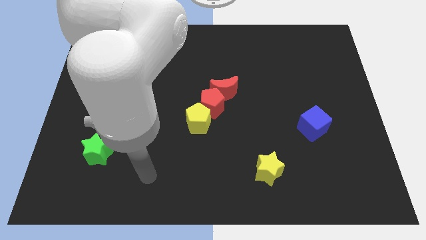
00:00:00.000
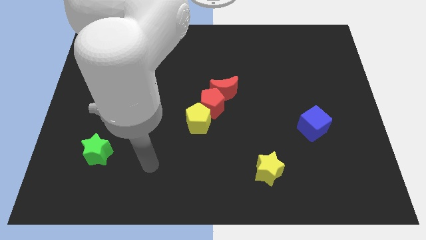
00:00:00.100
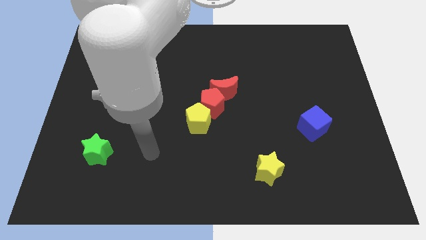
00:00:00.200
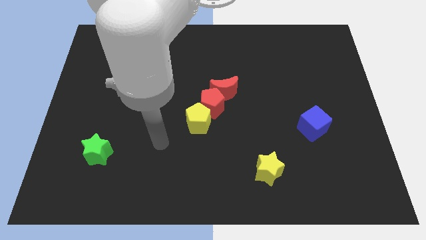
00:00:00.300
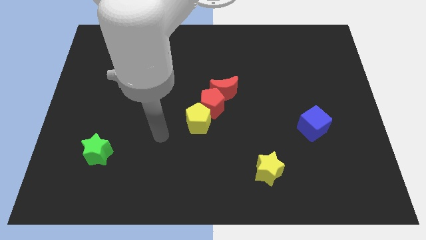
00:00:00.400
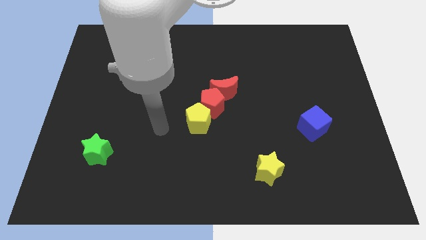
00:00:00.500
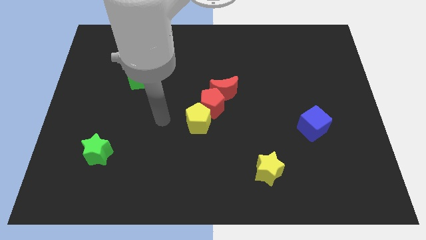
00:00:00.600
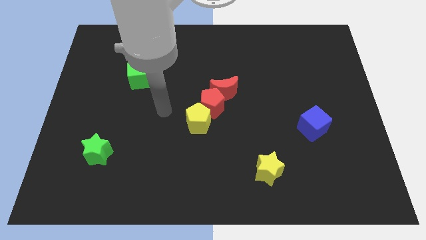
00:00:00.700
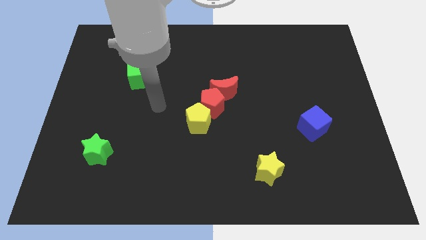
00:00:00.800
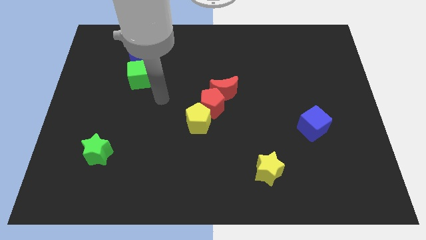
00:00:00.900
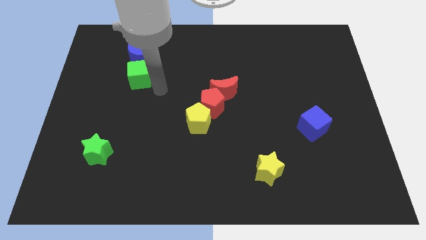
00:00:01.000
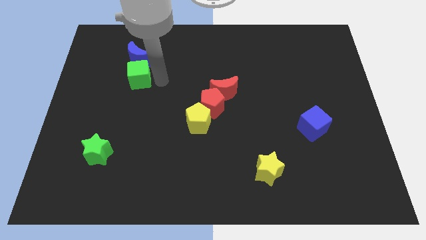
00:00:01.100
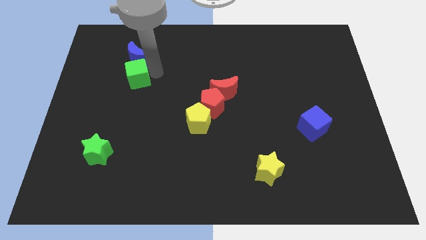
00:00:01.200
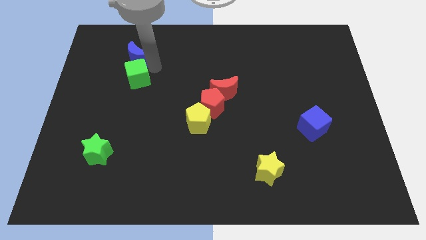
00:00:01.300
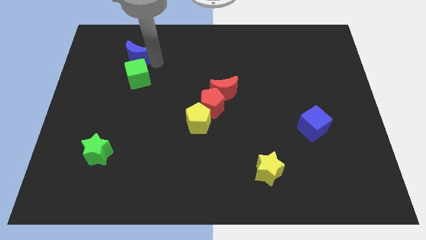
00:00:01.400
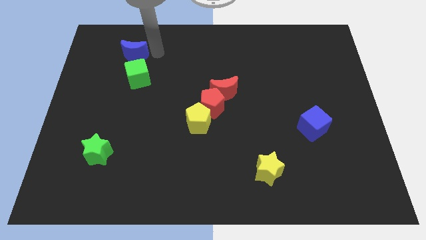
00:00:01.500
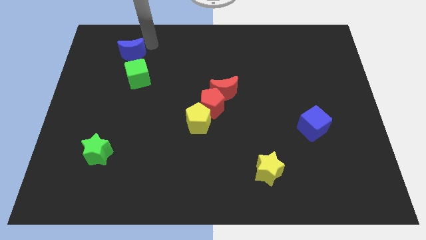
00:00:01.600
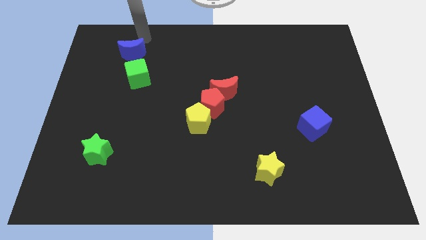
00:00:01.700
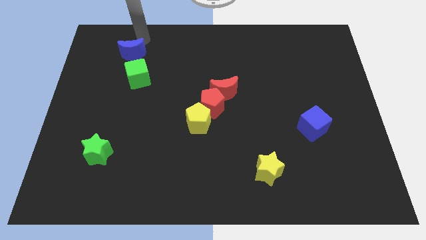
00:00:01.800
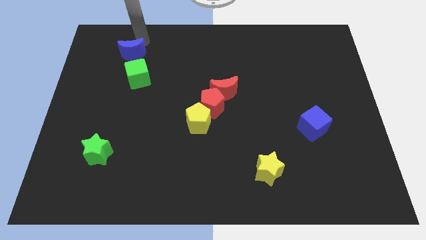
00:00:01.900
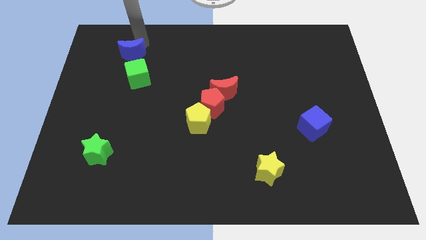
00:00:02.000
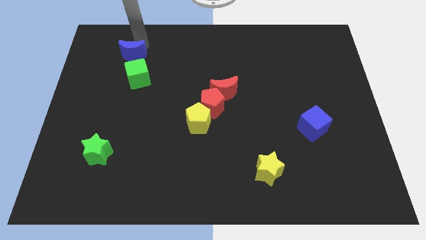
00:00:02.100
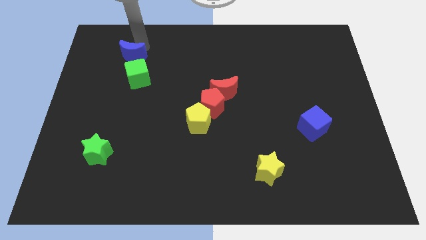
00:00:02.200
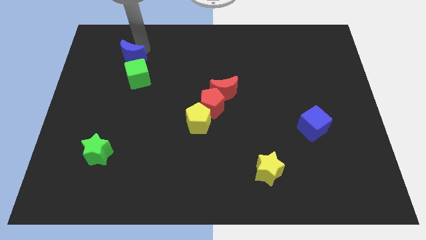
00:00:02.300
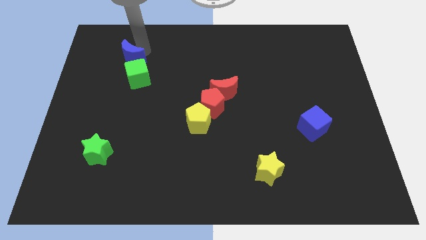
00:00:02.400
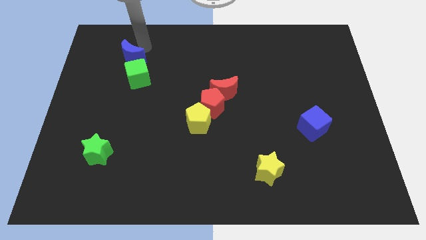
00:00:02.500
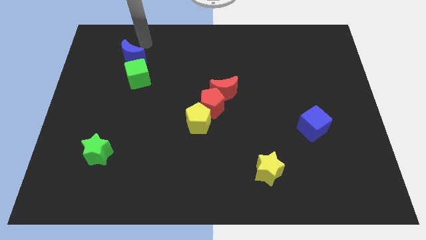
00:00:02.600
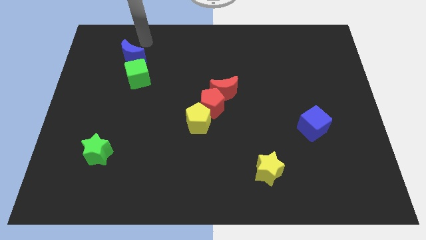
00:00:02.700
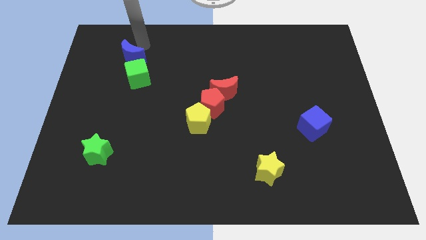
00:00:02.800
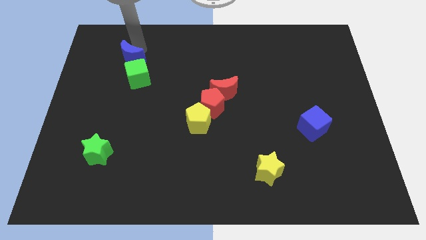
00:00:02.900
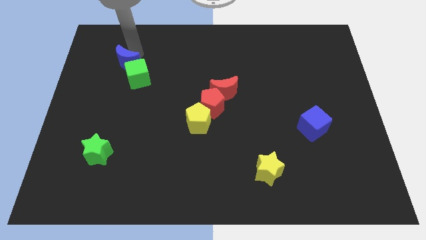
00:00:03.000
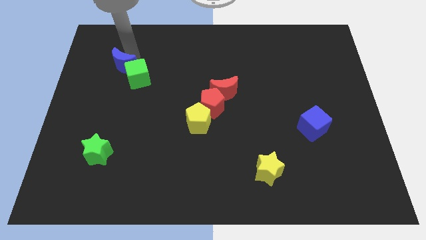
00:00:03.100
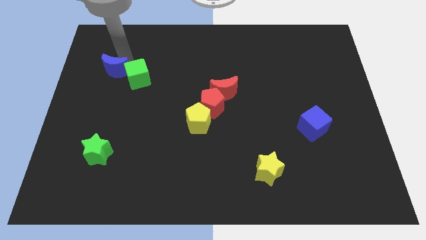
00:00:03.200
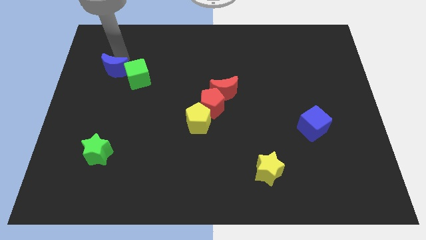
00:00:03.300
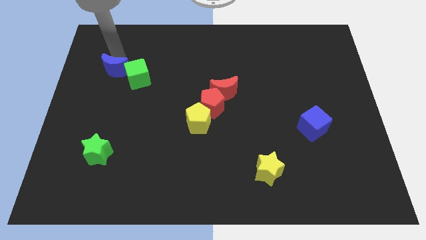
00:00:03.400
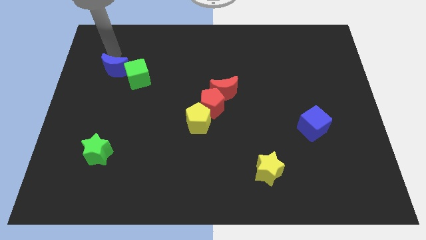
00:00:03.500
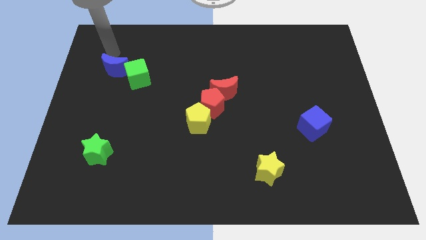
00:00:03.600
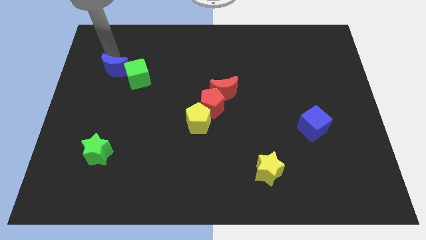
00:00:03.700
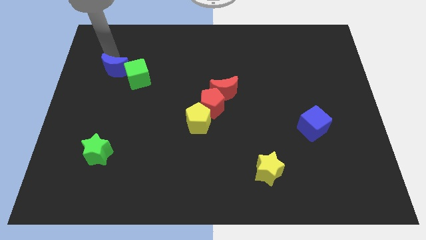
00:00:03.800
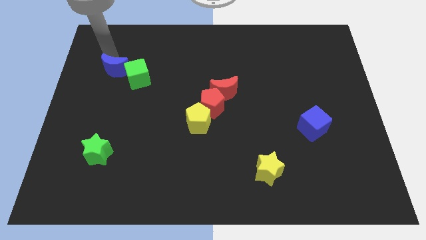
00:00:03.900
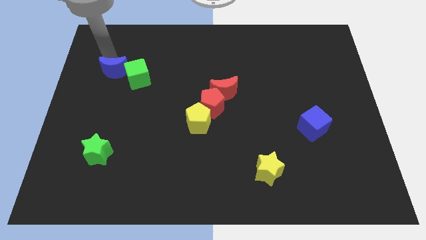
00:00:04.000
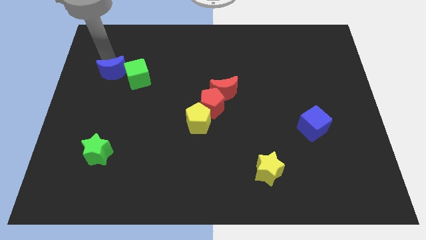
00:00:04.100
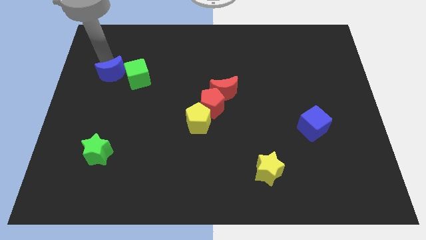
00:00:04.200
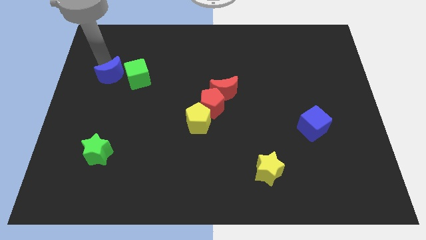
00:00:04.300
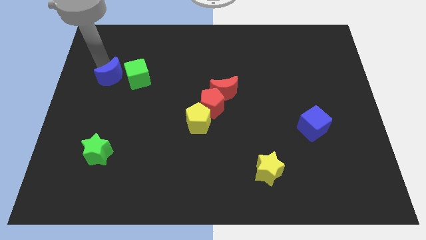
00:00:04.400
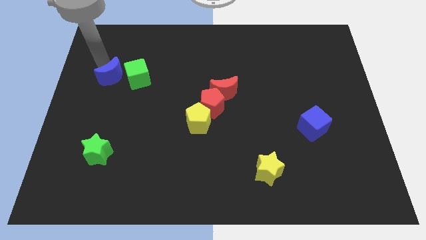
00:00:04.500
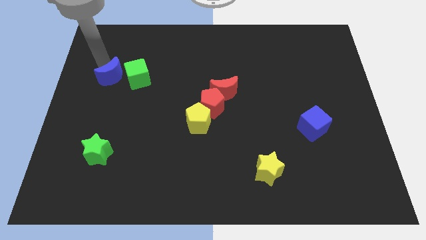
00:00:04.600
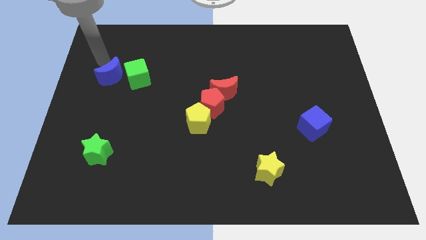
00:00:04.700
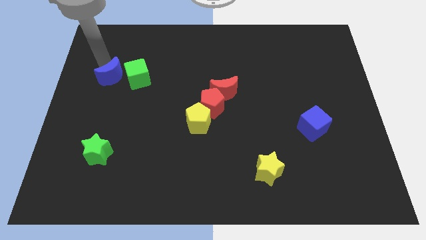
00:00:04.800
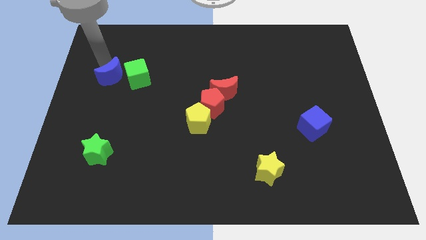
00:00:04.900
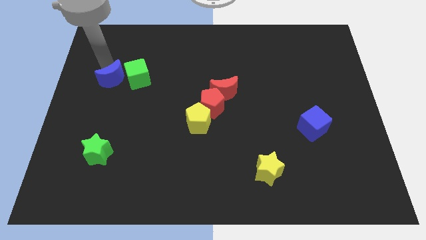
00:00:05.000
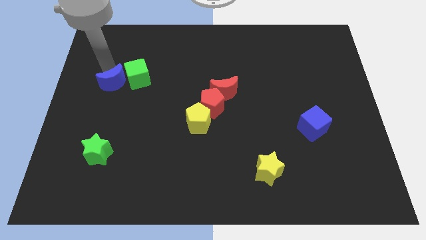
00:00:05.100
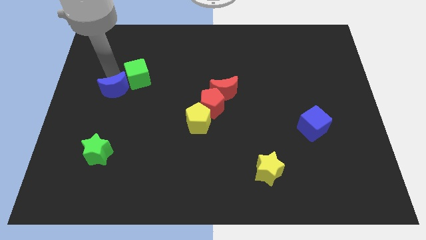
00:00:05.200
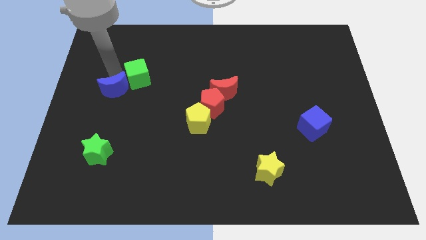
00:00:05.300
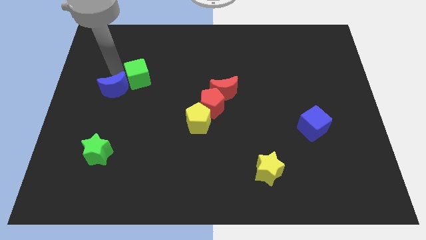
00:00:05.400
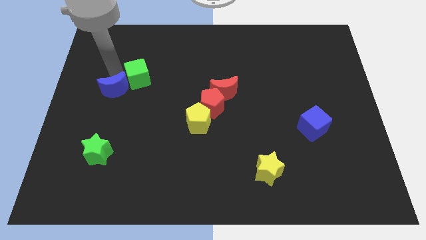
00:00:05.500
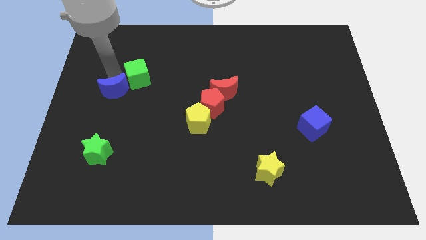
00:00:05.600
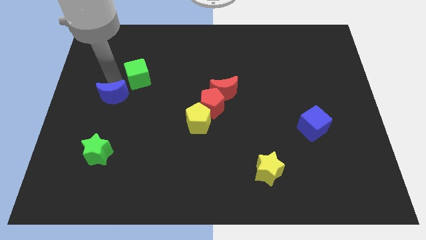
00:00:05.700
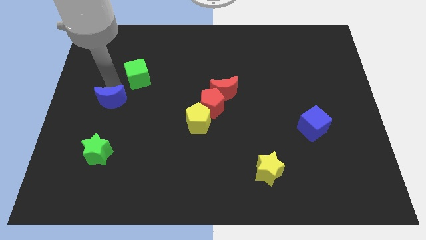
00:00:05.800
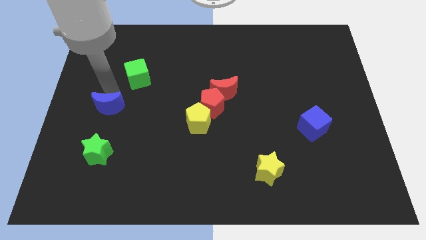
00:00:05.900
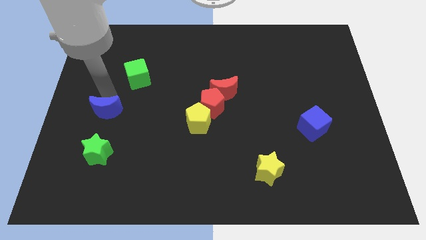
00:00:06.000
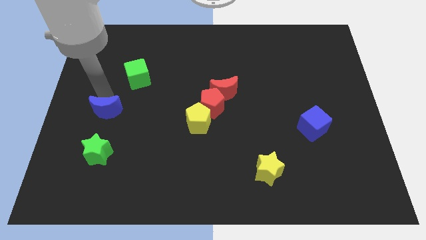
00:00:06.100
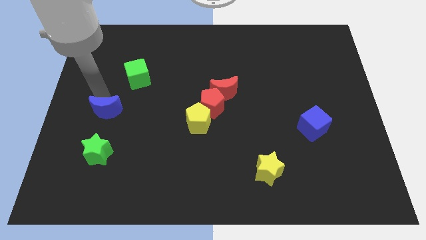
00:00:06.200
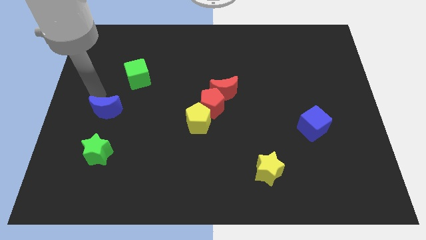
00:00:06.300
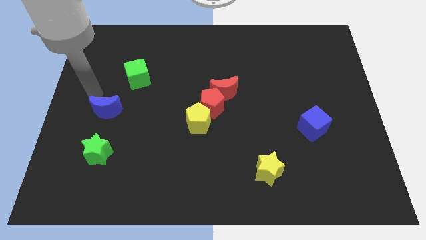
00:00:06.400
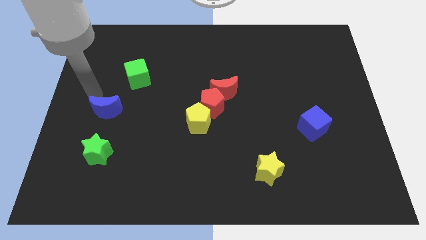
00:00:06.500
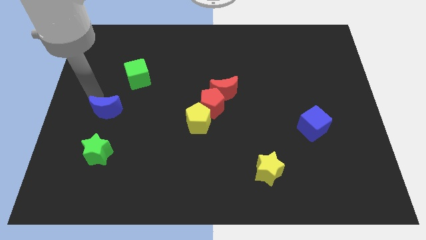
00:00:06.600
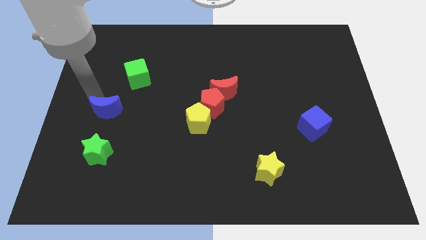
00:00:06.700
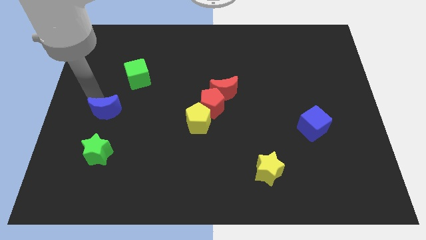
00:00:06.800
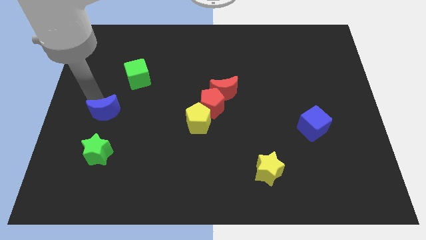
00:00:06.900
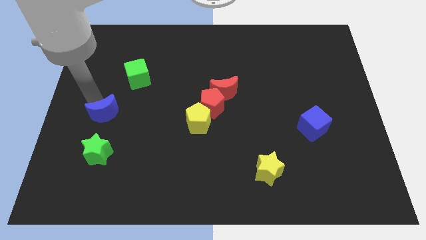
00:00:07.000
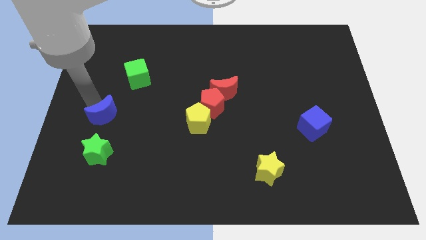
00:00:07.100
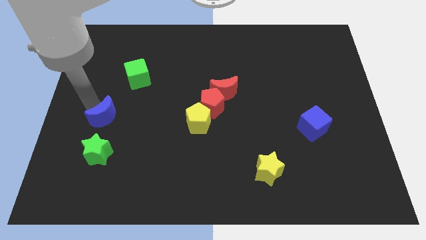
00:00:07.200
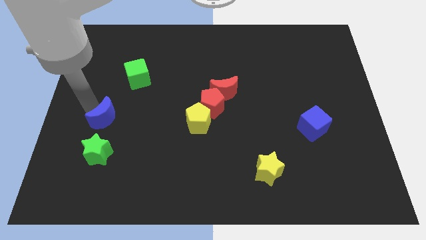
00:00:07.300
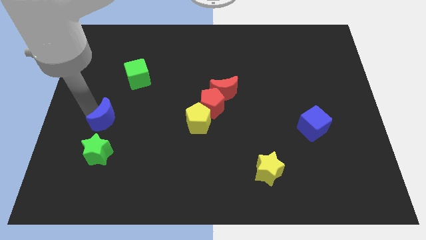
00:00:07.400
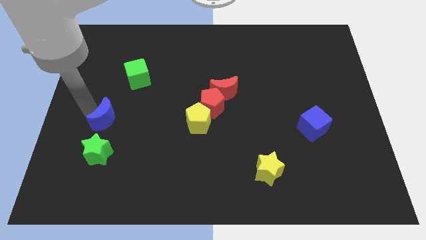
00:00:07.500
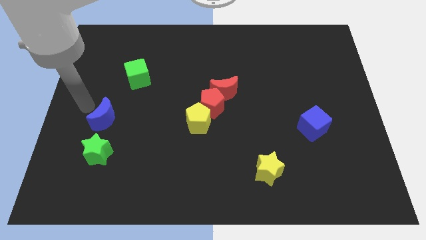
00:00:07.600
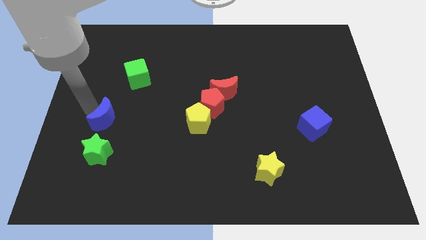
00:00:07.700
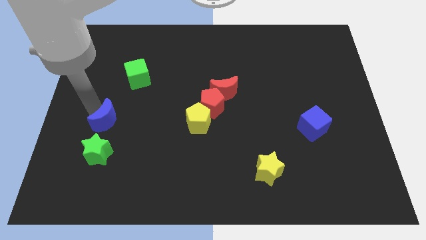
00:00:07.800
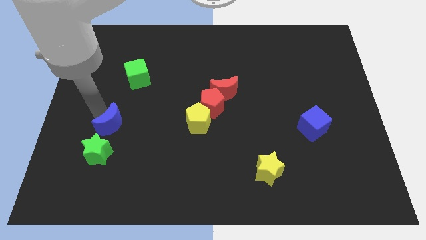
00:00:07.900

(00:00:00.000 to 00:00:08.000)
put the blue moon to the top right of the green star
